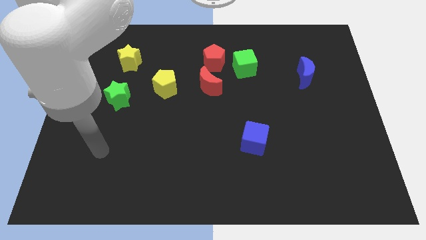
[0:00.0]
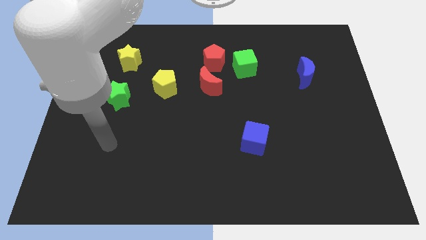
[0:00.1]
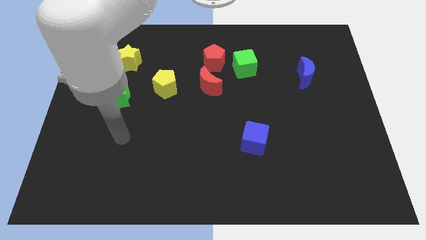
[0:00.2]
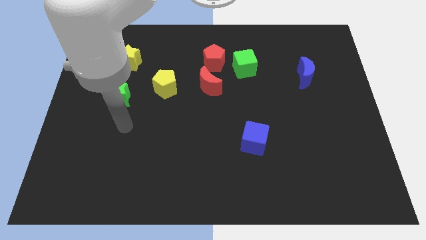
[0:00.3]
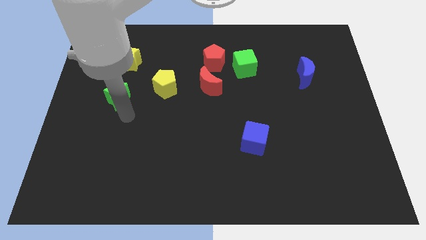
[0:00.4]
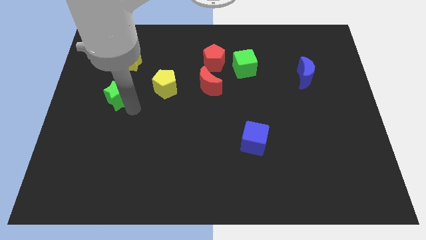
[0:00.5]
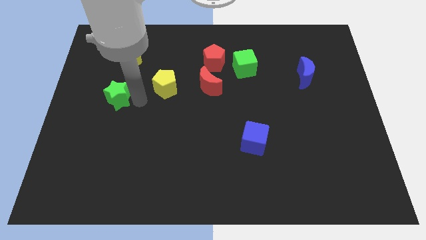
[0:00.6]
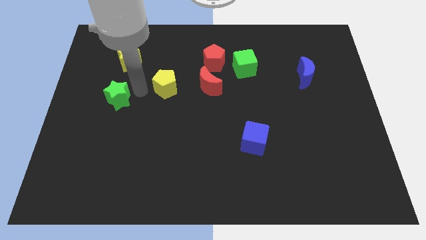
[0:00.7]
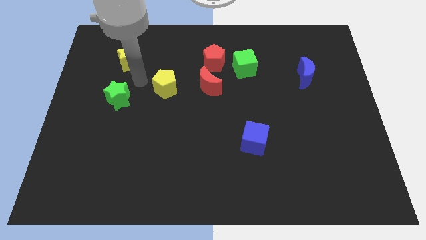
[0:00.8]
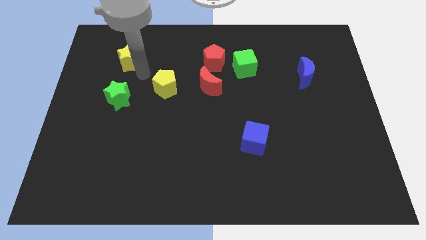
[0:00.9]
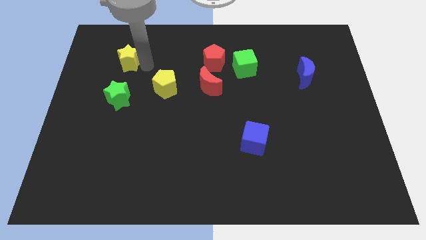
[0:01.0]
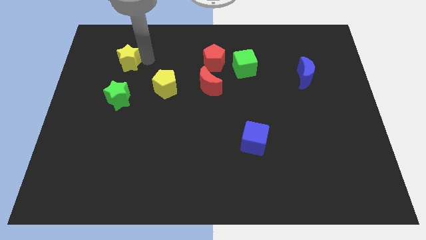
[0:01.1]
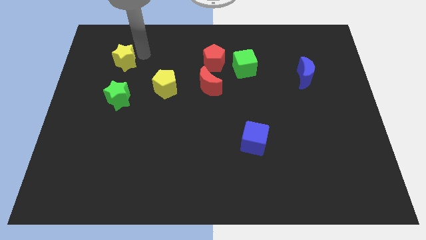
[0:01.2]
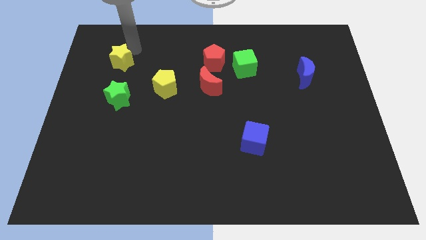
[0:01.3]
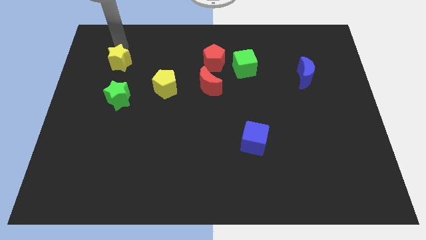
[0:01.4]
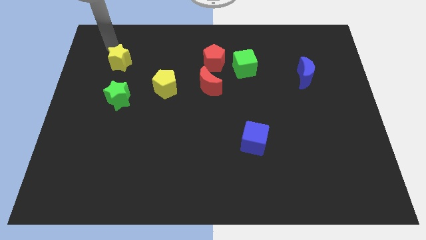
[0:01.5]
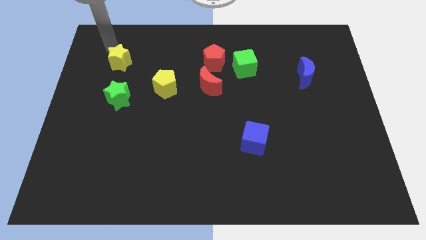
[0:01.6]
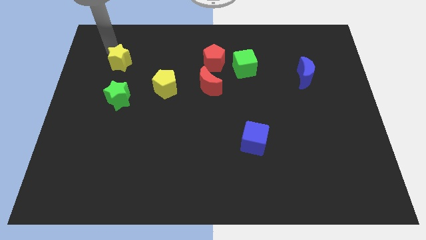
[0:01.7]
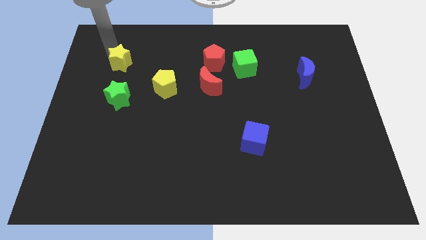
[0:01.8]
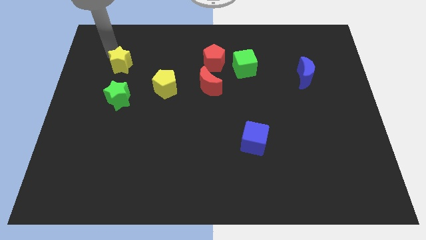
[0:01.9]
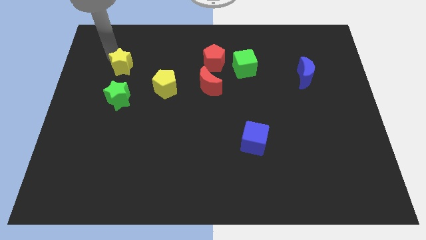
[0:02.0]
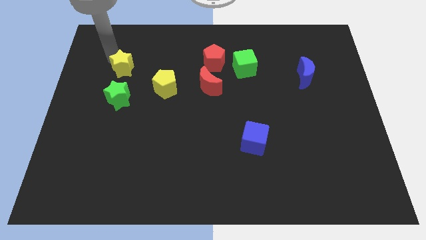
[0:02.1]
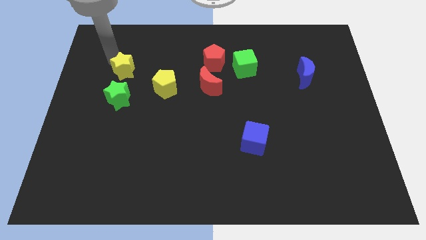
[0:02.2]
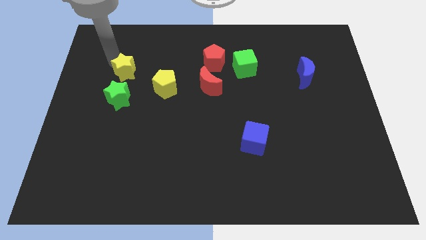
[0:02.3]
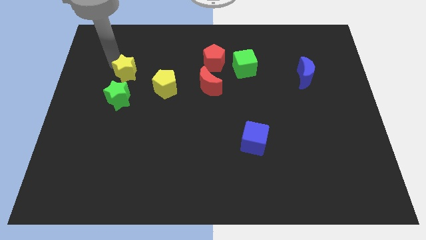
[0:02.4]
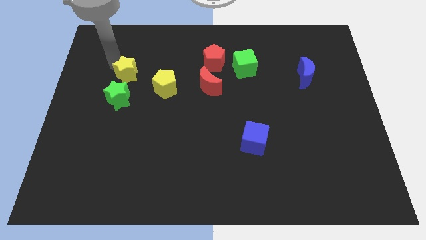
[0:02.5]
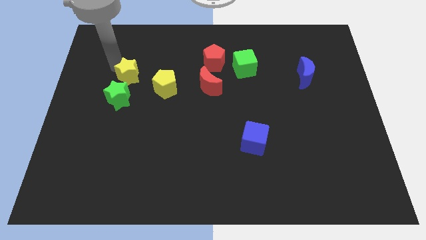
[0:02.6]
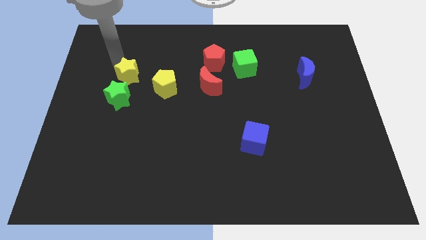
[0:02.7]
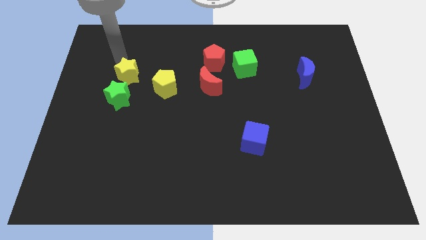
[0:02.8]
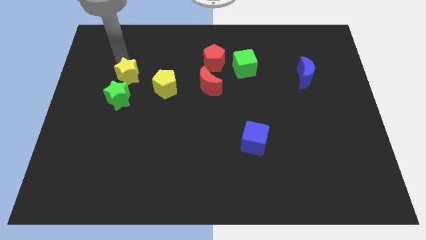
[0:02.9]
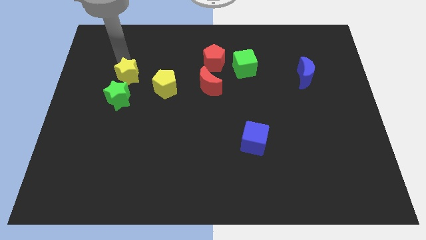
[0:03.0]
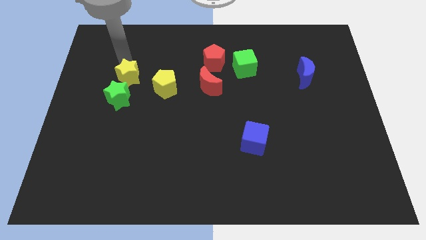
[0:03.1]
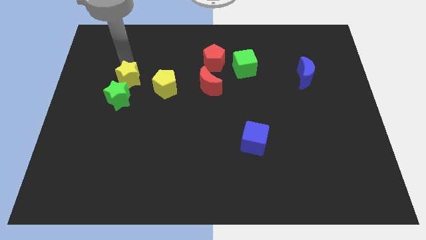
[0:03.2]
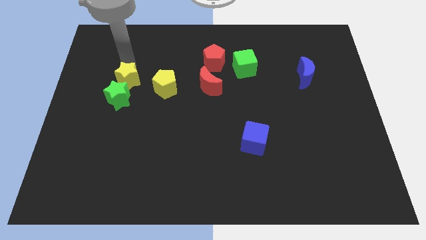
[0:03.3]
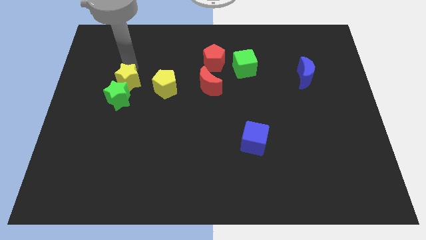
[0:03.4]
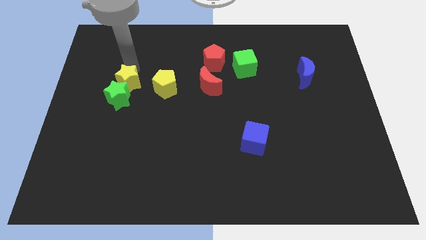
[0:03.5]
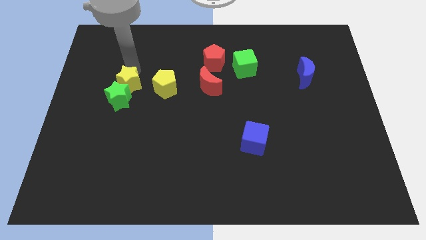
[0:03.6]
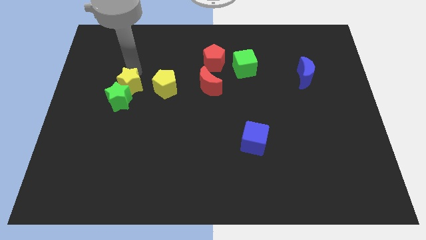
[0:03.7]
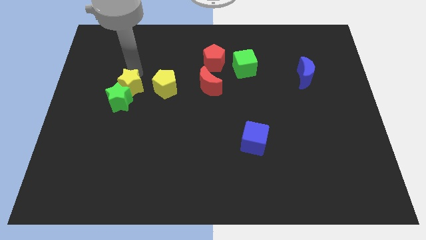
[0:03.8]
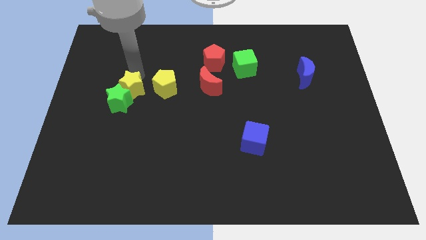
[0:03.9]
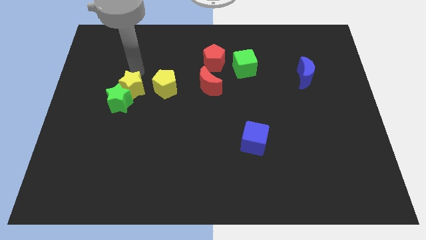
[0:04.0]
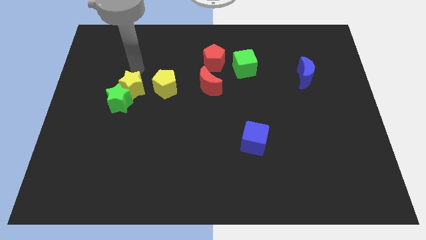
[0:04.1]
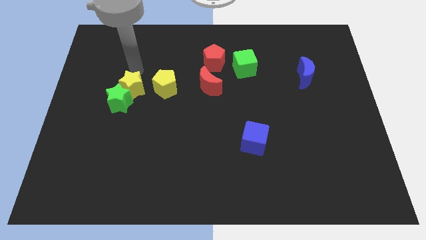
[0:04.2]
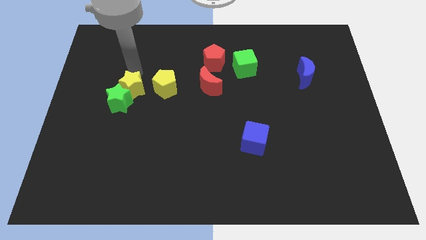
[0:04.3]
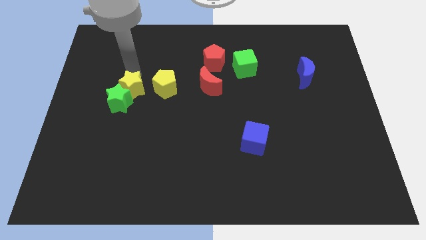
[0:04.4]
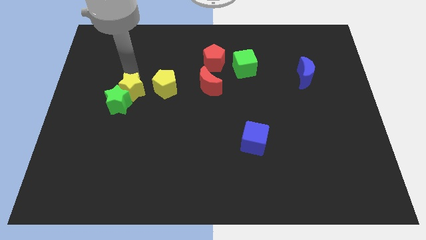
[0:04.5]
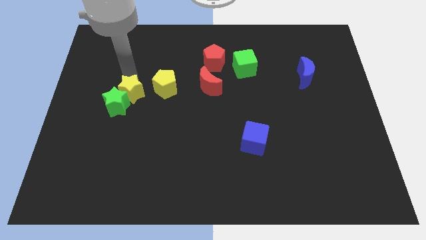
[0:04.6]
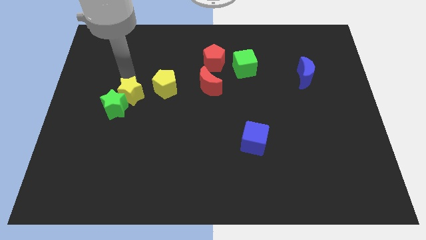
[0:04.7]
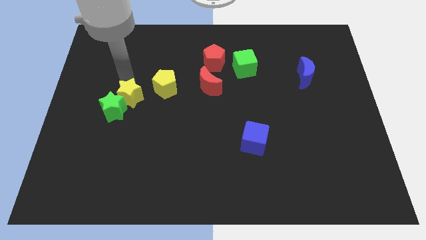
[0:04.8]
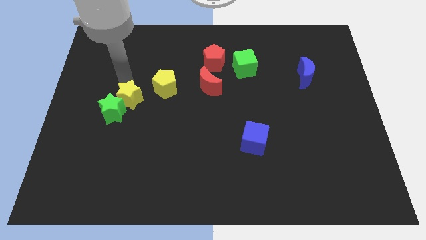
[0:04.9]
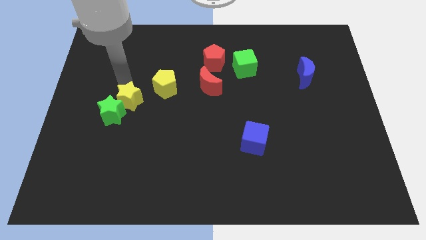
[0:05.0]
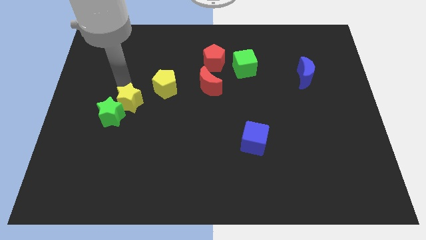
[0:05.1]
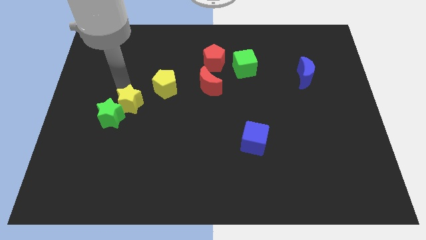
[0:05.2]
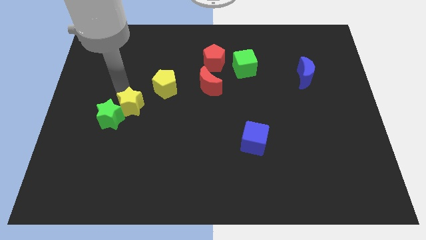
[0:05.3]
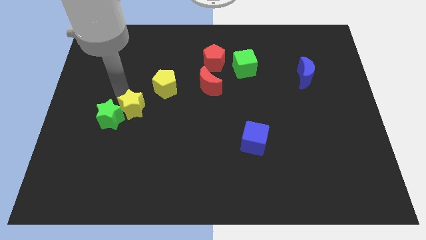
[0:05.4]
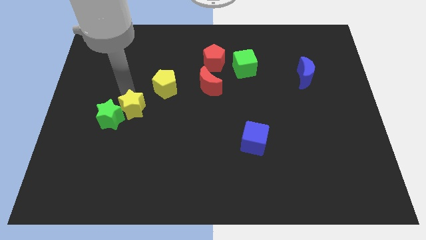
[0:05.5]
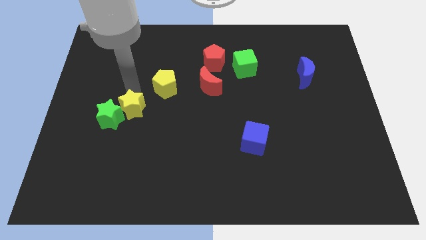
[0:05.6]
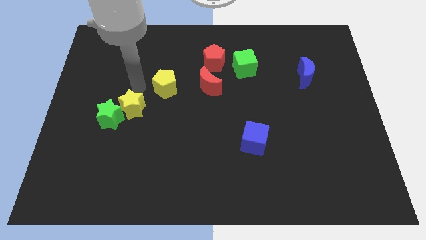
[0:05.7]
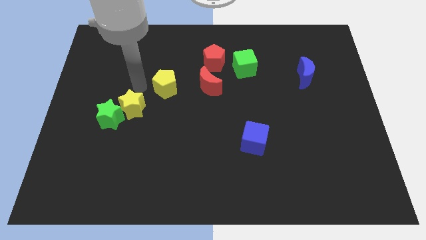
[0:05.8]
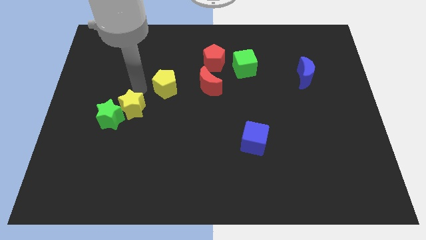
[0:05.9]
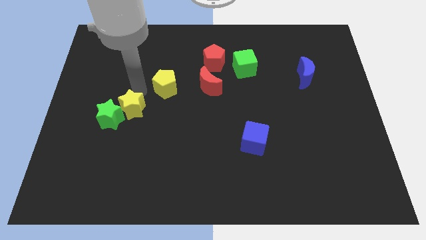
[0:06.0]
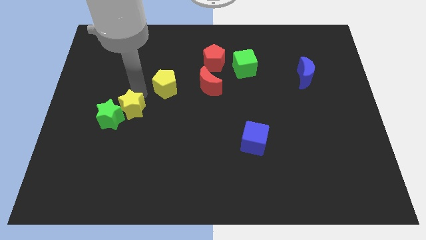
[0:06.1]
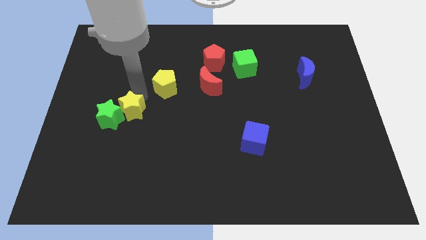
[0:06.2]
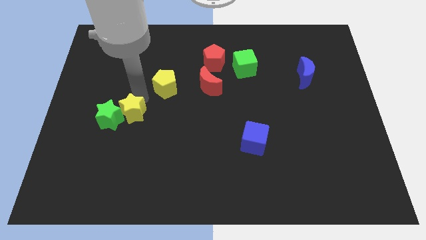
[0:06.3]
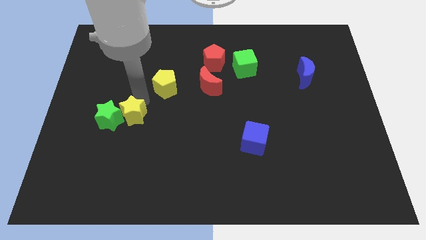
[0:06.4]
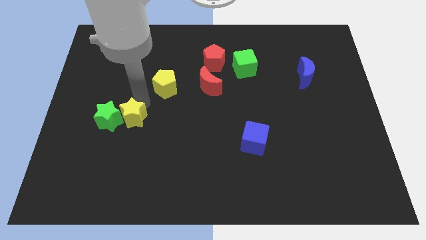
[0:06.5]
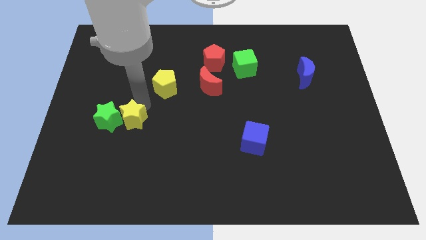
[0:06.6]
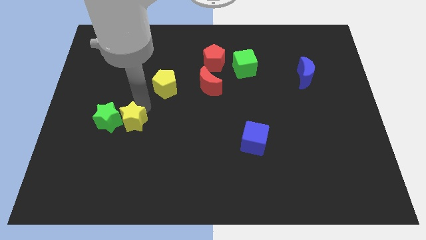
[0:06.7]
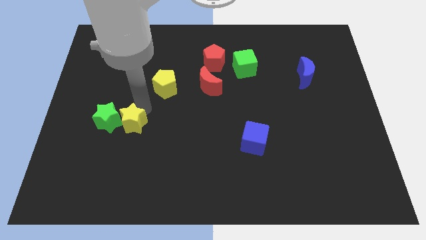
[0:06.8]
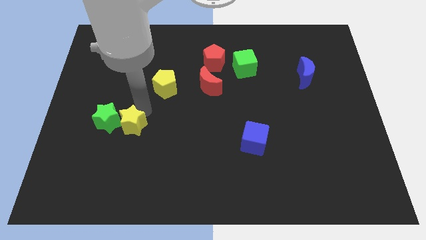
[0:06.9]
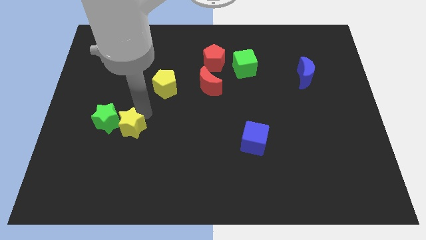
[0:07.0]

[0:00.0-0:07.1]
push the yellow star downwards

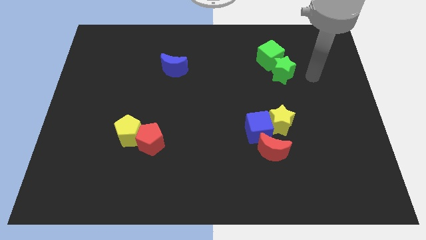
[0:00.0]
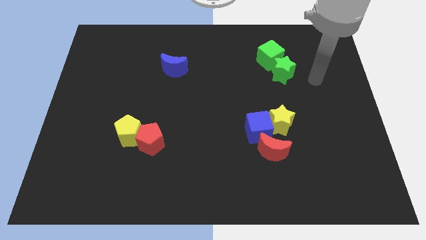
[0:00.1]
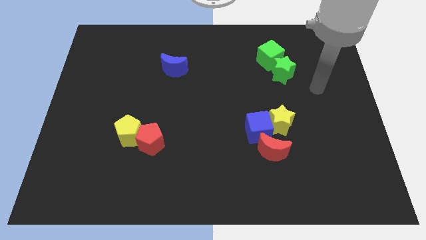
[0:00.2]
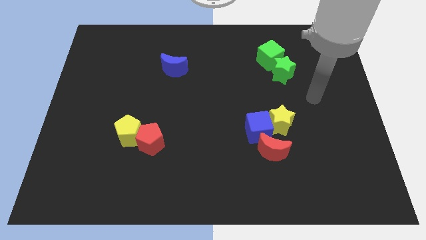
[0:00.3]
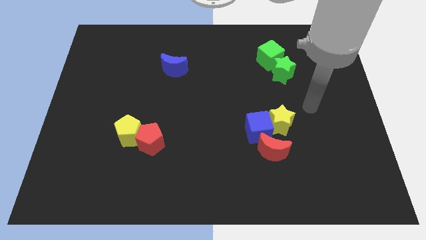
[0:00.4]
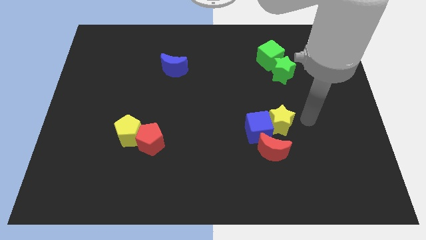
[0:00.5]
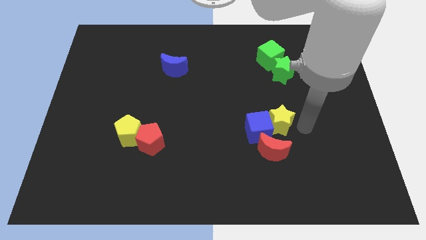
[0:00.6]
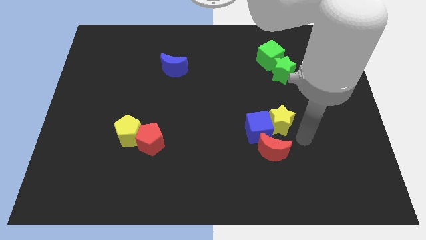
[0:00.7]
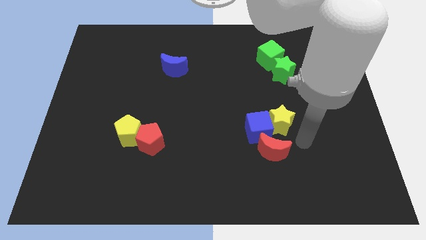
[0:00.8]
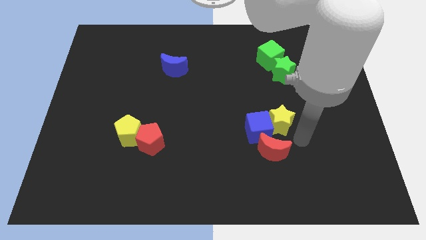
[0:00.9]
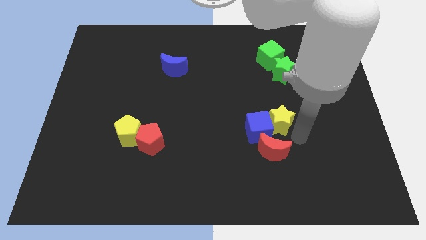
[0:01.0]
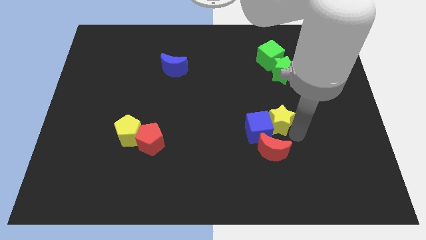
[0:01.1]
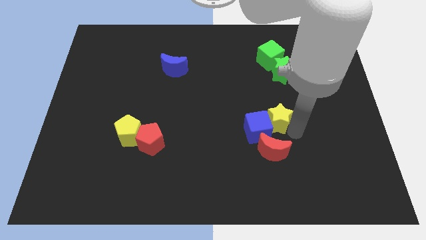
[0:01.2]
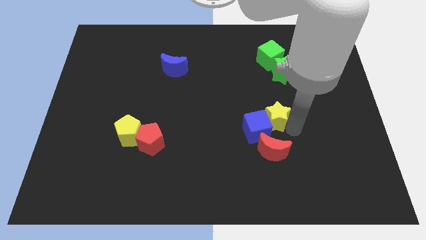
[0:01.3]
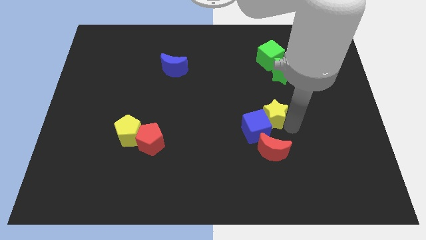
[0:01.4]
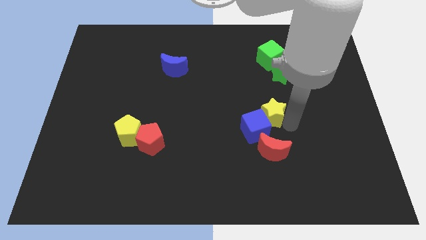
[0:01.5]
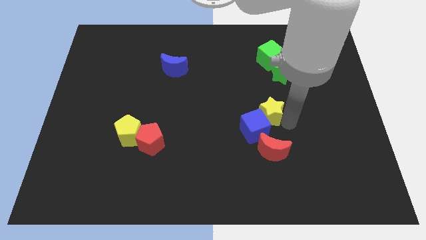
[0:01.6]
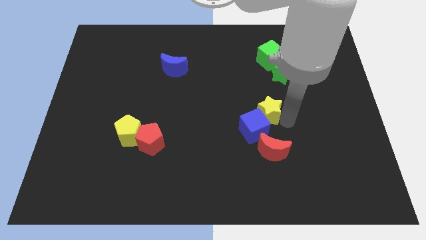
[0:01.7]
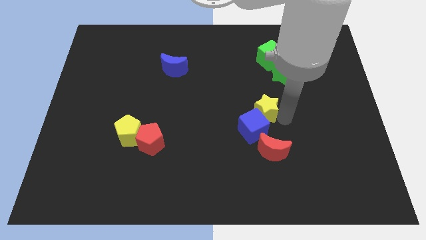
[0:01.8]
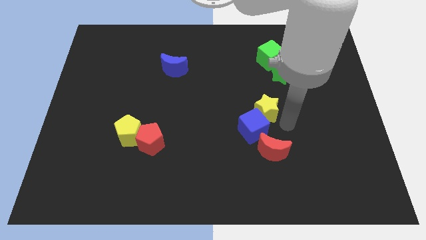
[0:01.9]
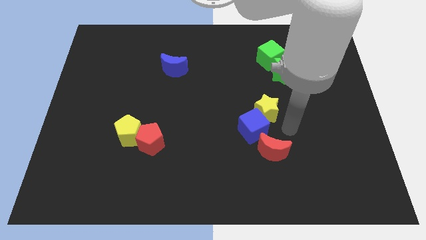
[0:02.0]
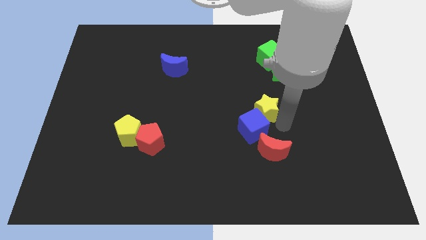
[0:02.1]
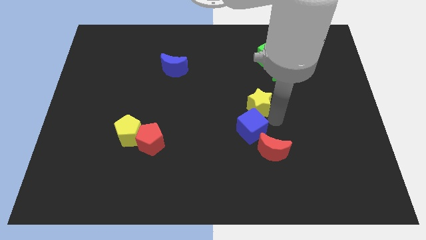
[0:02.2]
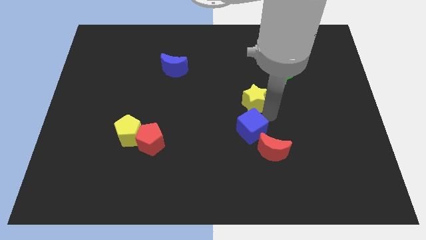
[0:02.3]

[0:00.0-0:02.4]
push the yellow star up and left a bit
